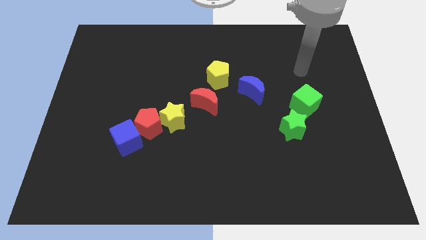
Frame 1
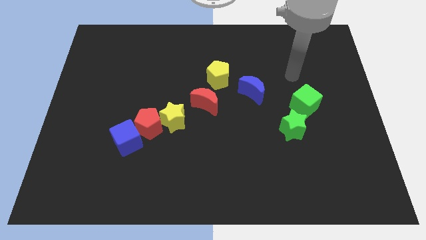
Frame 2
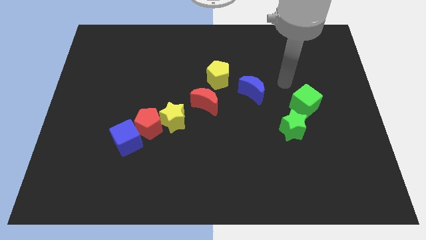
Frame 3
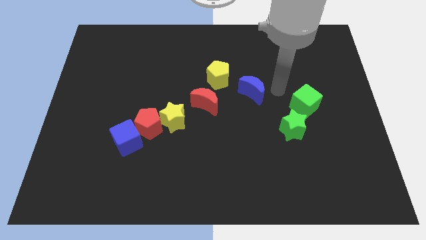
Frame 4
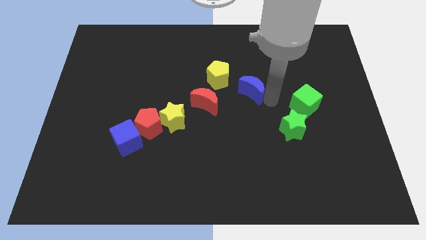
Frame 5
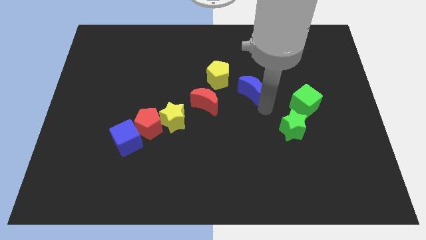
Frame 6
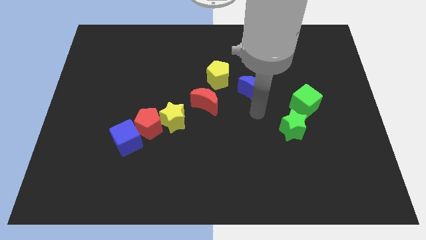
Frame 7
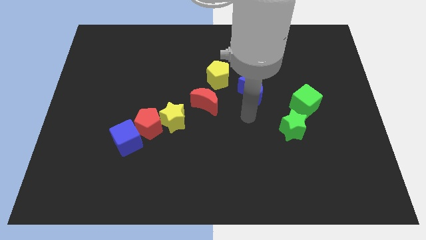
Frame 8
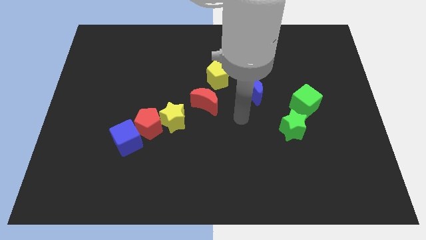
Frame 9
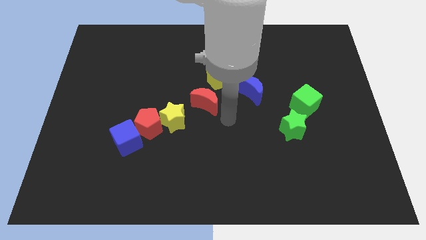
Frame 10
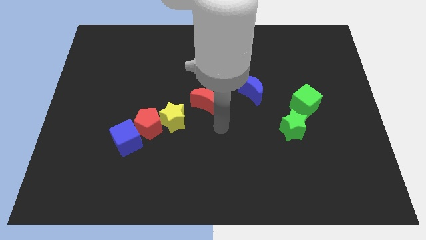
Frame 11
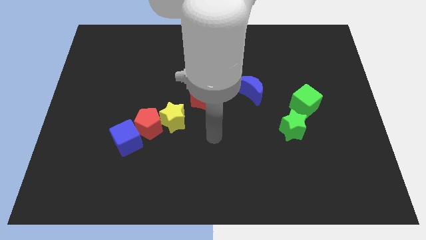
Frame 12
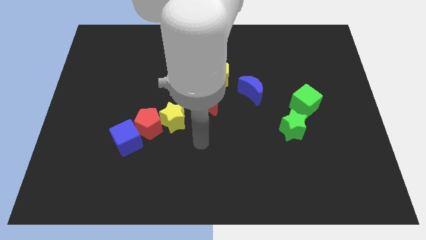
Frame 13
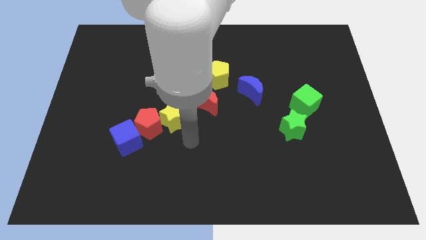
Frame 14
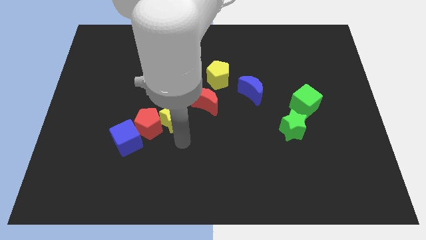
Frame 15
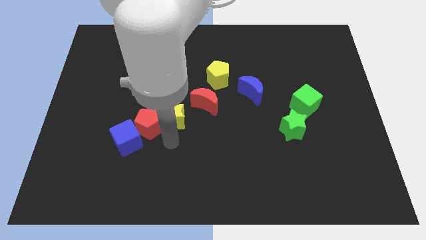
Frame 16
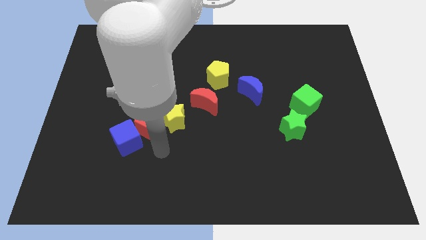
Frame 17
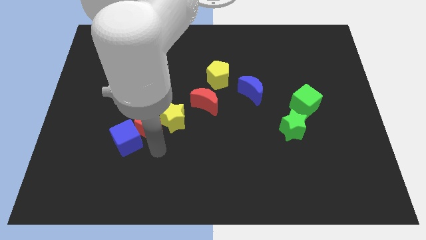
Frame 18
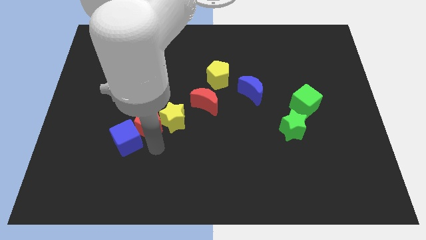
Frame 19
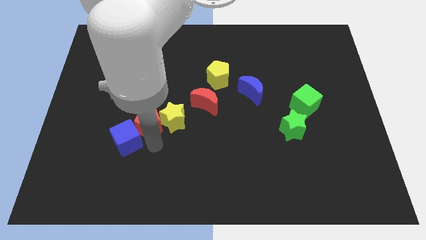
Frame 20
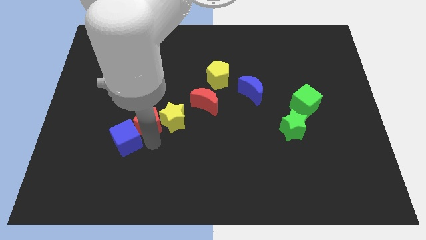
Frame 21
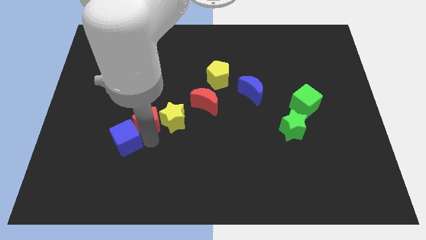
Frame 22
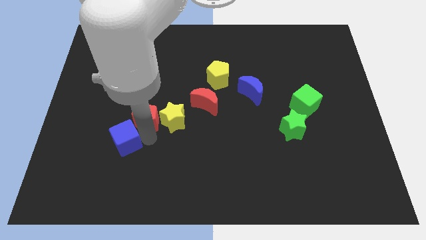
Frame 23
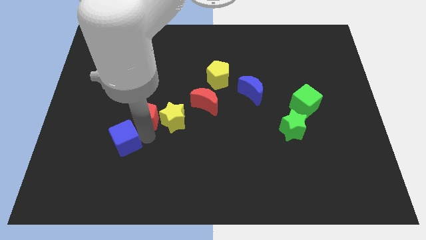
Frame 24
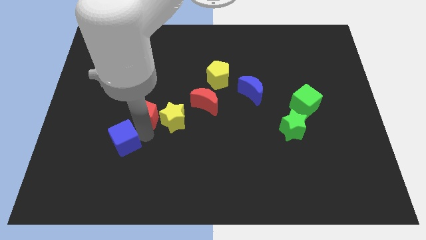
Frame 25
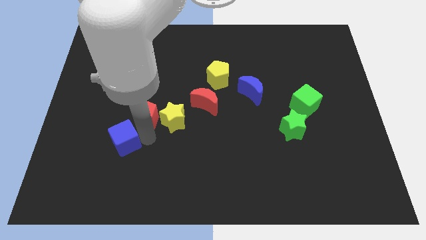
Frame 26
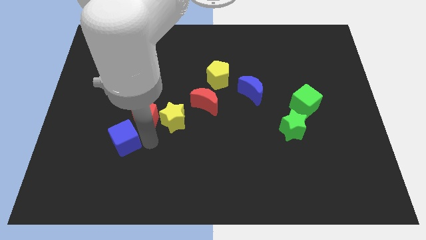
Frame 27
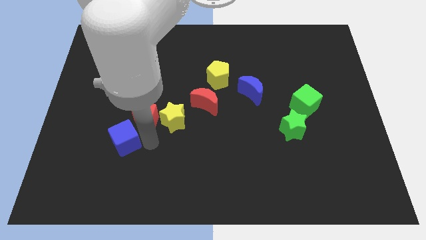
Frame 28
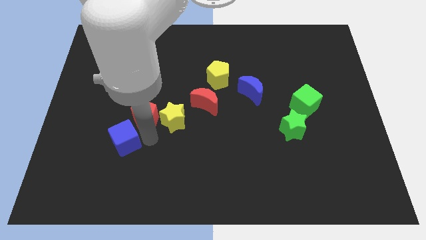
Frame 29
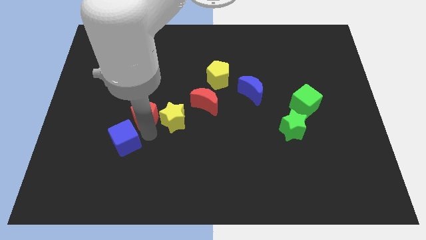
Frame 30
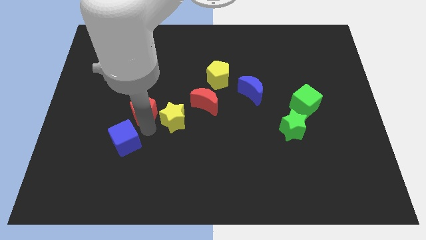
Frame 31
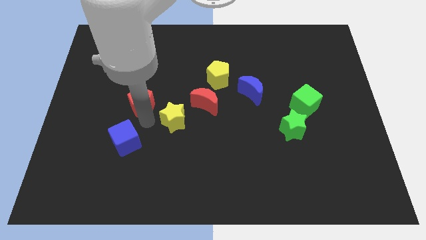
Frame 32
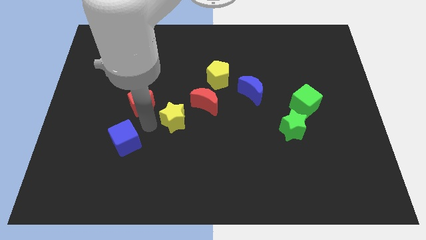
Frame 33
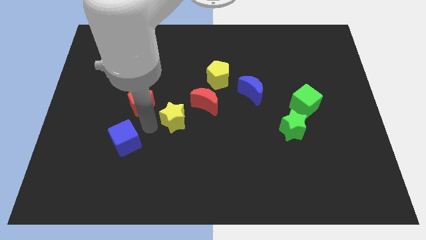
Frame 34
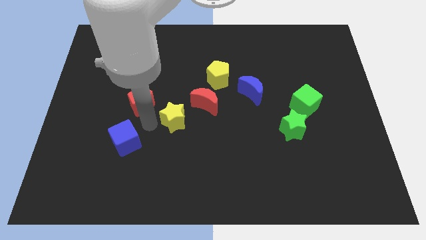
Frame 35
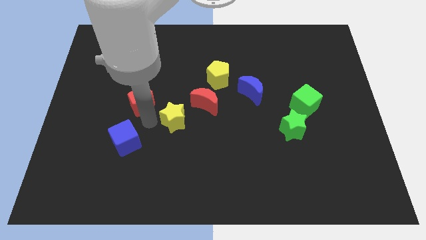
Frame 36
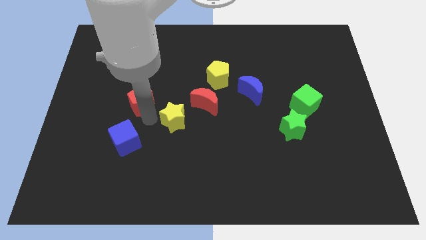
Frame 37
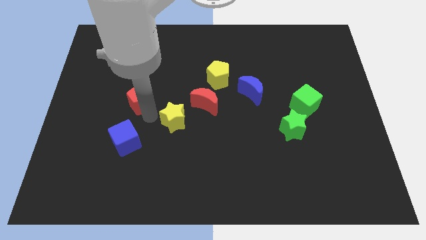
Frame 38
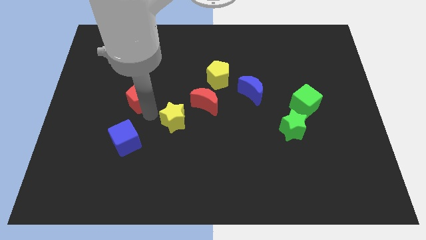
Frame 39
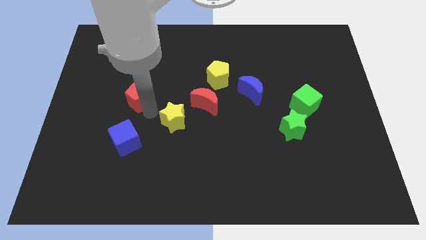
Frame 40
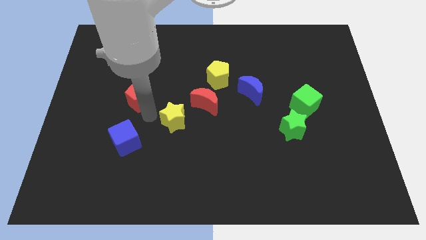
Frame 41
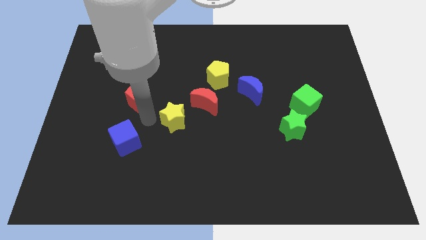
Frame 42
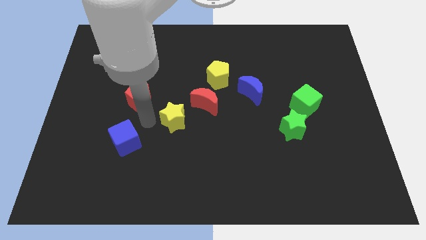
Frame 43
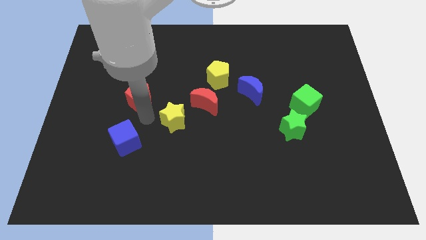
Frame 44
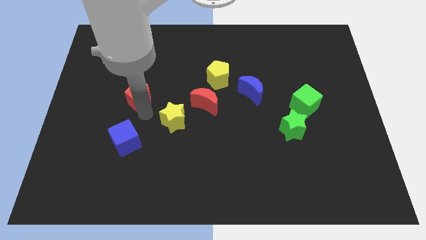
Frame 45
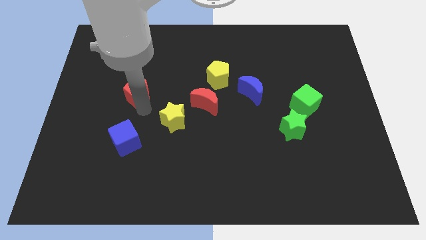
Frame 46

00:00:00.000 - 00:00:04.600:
pull the red pentagon apart from the yellow star and blue cube

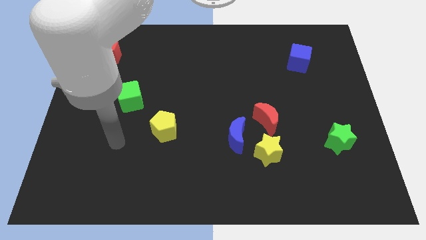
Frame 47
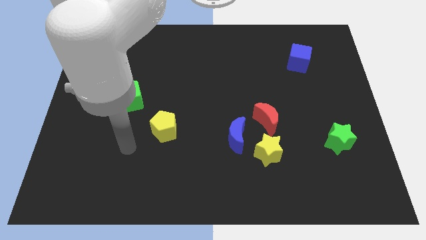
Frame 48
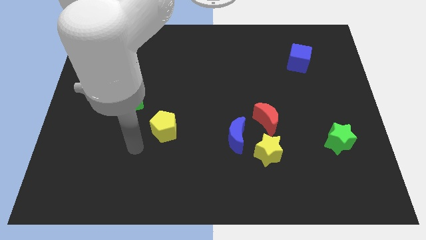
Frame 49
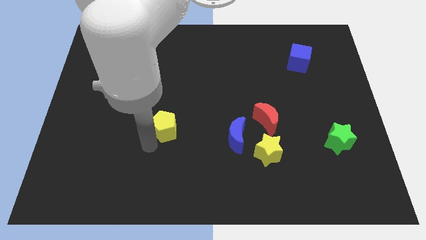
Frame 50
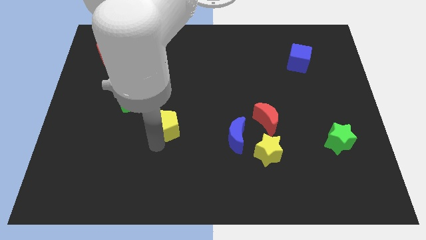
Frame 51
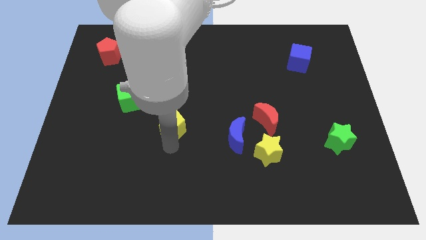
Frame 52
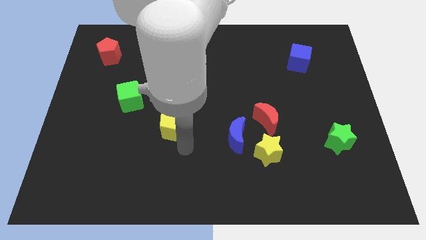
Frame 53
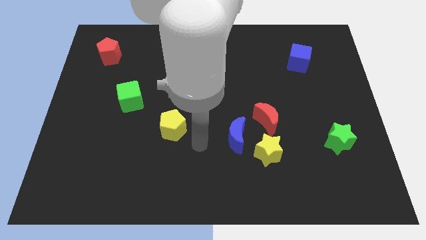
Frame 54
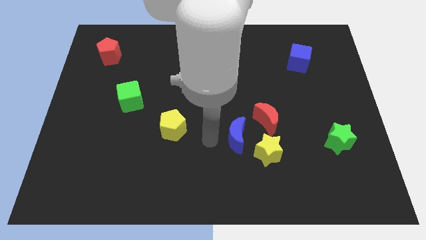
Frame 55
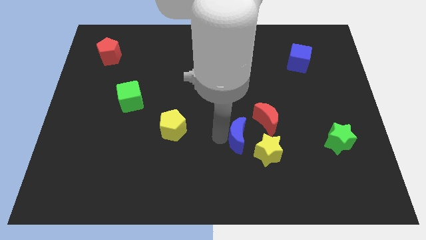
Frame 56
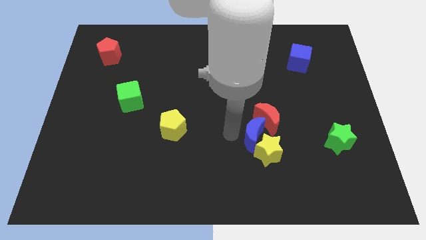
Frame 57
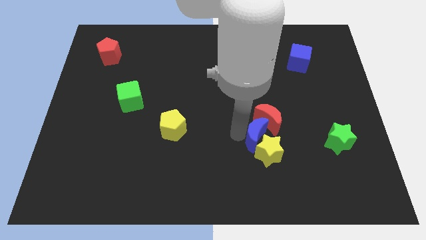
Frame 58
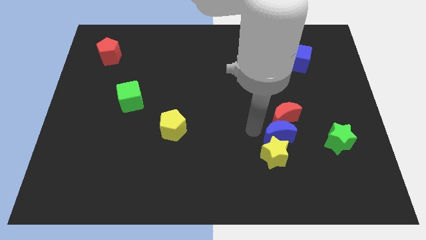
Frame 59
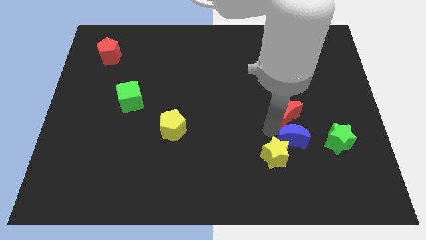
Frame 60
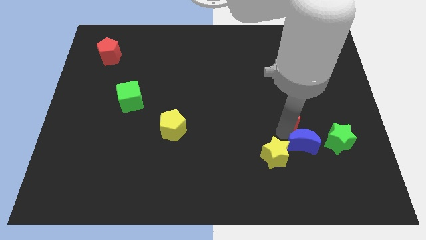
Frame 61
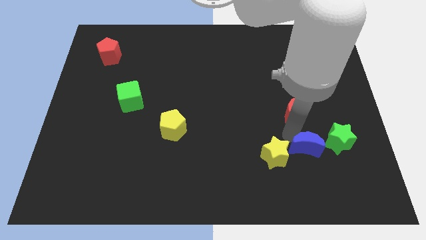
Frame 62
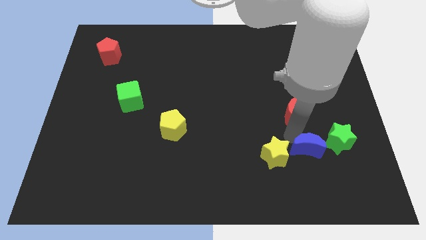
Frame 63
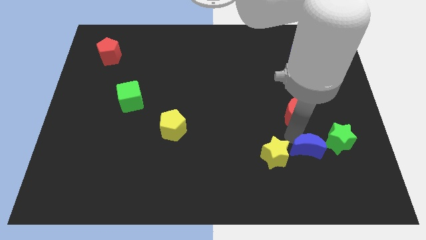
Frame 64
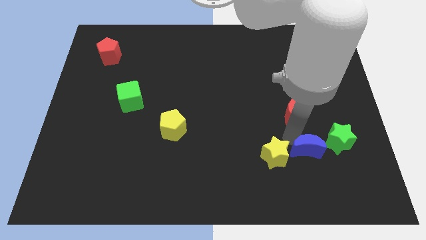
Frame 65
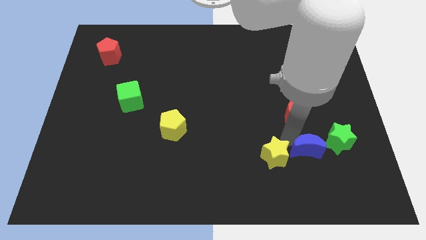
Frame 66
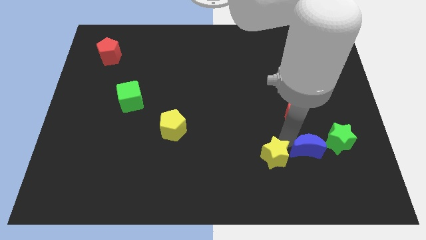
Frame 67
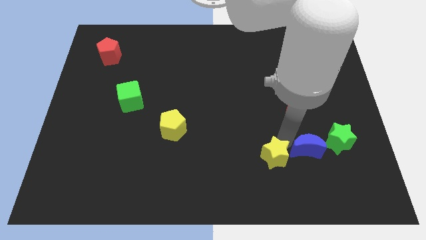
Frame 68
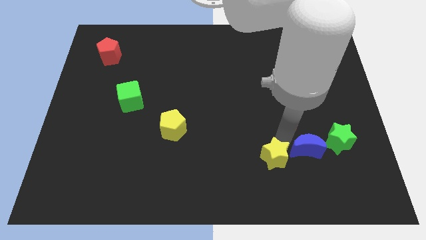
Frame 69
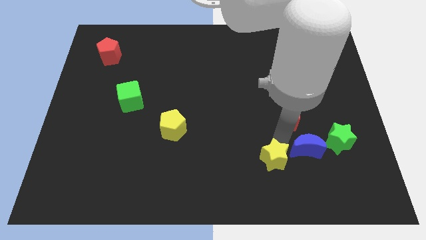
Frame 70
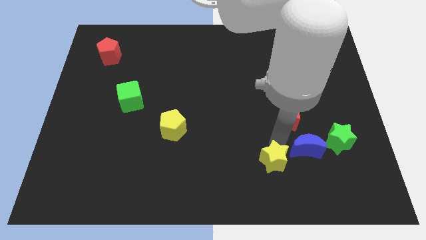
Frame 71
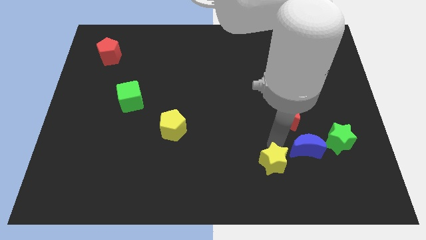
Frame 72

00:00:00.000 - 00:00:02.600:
move the yellow star away from the blue moon and red moon

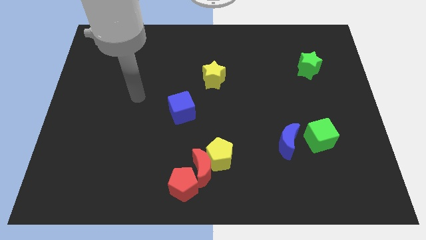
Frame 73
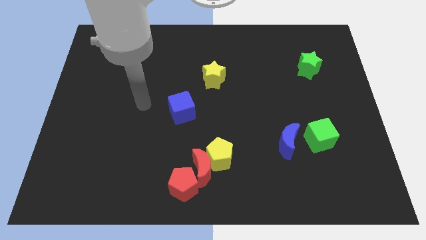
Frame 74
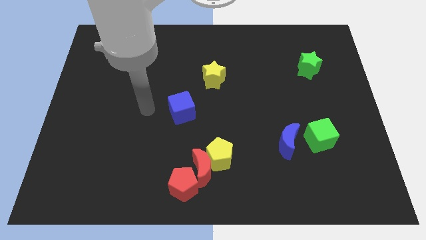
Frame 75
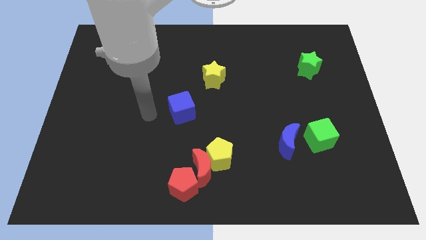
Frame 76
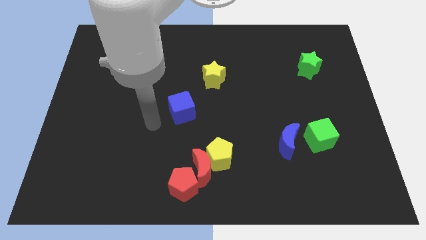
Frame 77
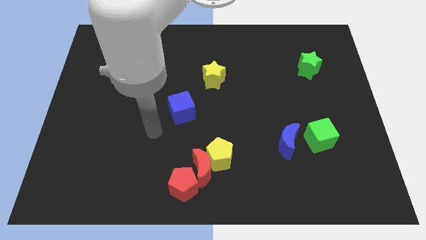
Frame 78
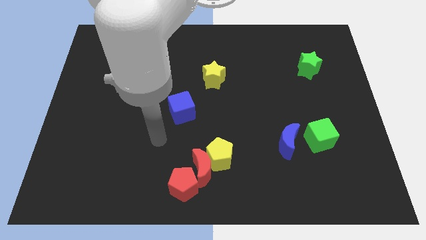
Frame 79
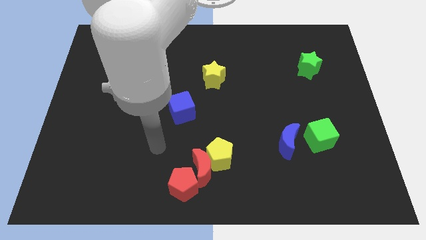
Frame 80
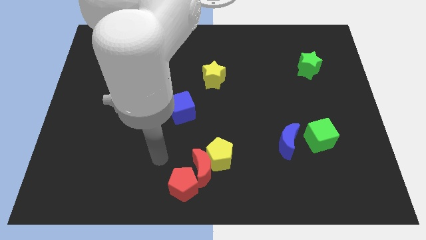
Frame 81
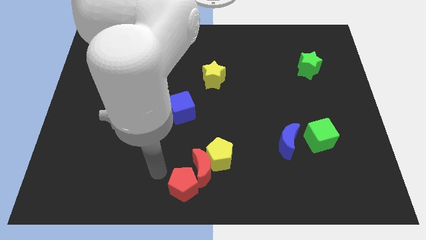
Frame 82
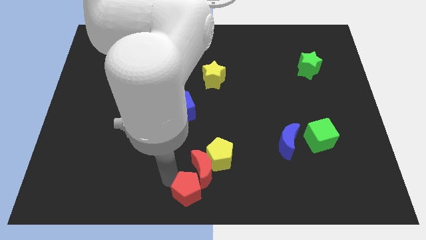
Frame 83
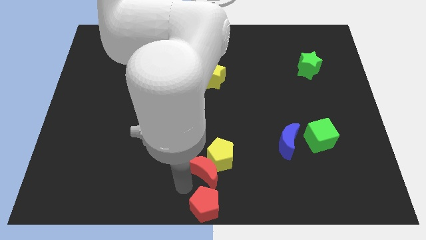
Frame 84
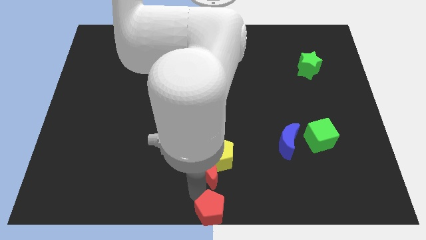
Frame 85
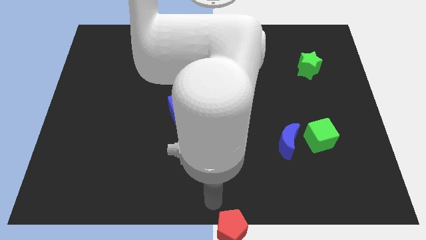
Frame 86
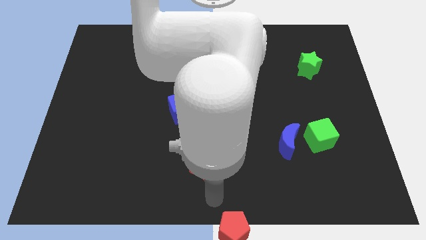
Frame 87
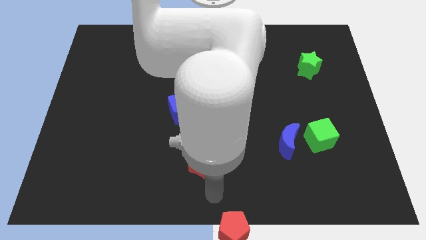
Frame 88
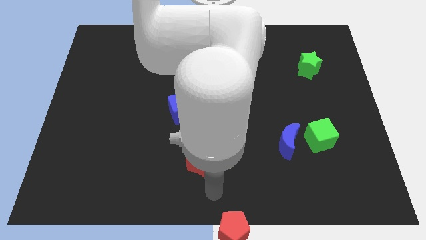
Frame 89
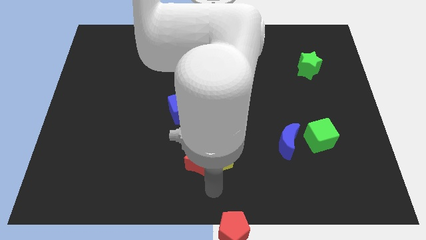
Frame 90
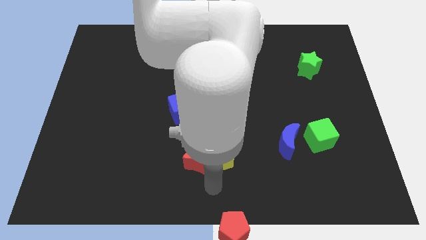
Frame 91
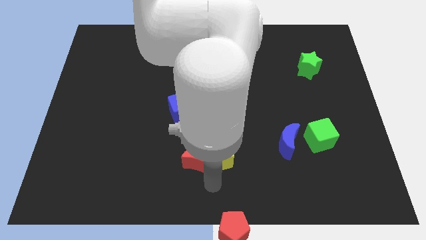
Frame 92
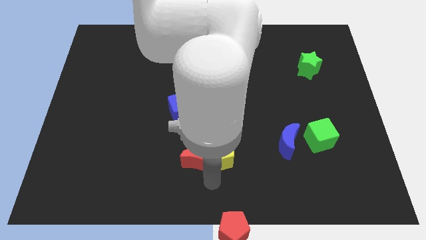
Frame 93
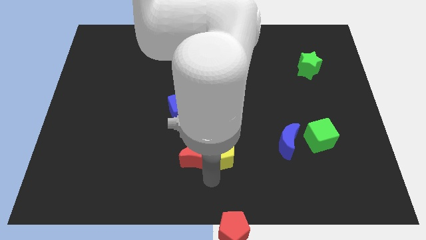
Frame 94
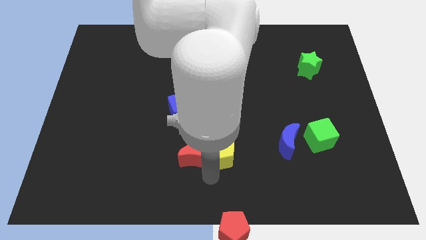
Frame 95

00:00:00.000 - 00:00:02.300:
pull the red moon apart from the yellow pentagon and red pentagon
